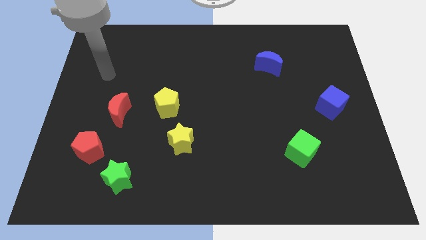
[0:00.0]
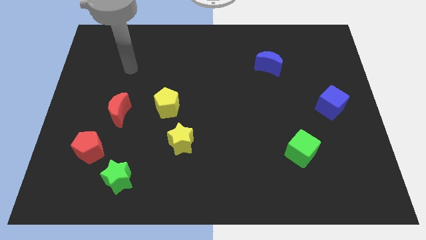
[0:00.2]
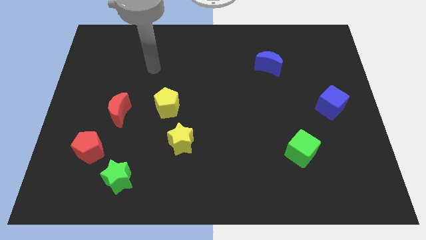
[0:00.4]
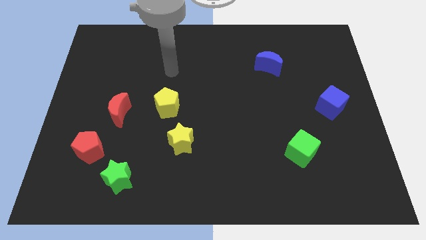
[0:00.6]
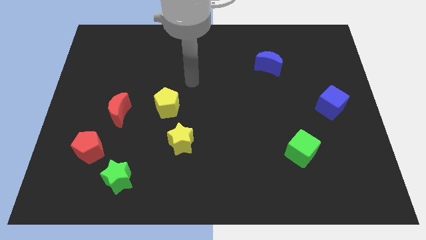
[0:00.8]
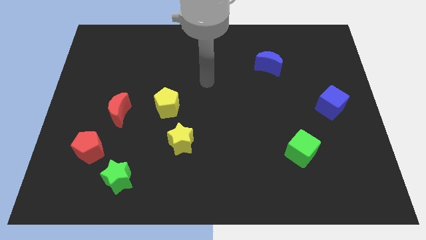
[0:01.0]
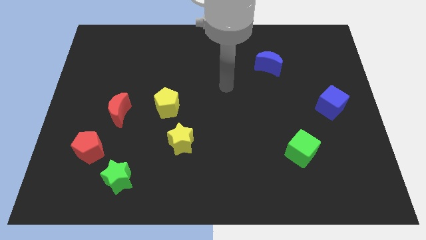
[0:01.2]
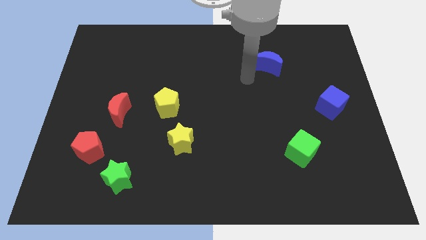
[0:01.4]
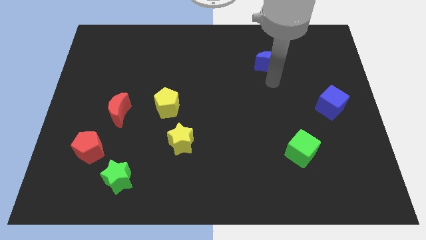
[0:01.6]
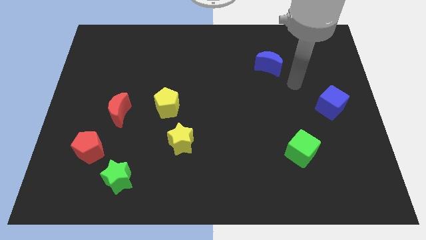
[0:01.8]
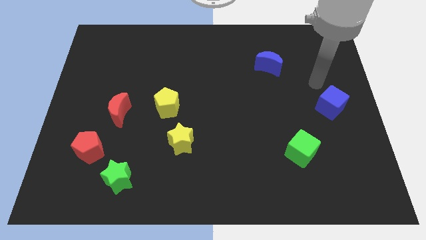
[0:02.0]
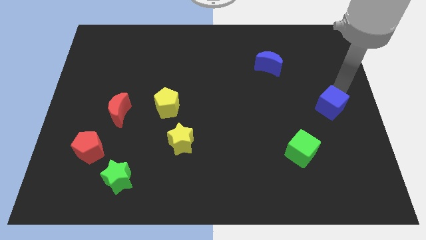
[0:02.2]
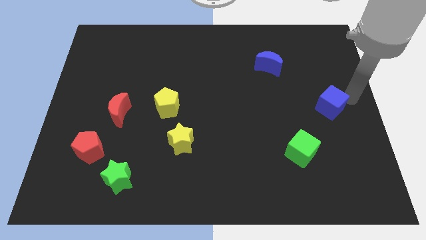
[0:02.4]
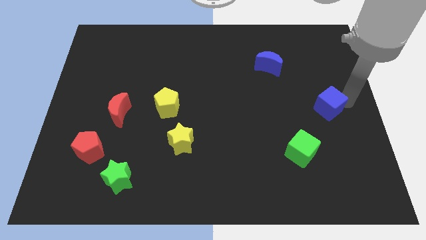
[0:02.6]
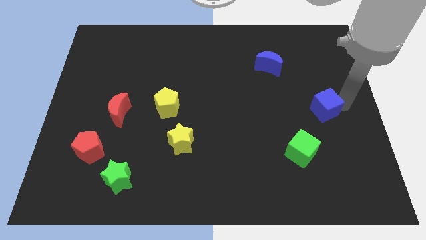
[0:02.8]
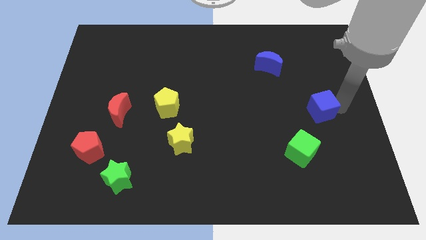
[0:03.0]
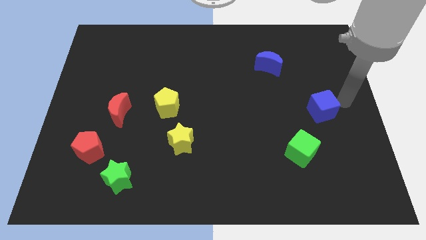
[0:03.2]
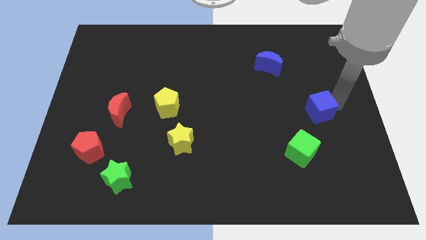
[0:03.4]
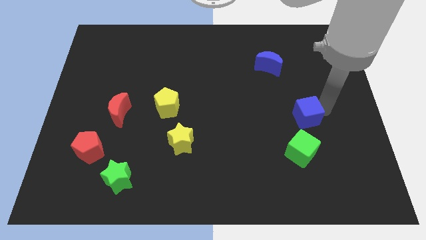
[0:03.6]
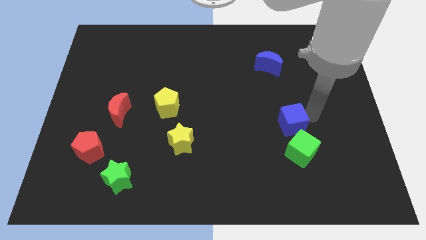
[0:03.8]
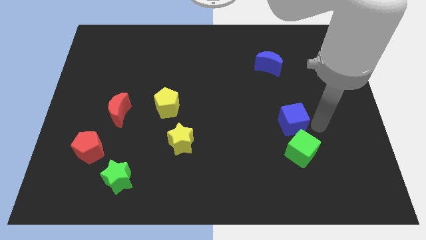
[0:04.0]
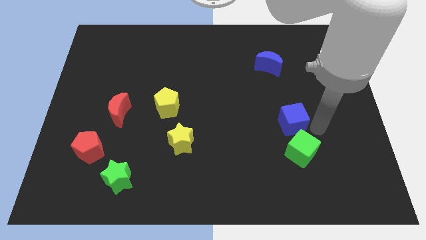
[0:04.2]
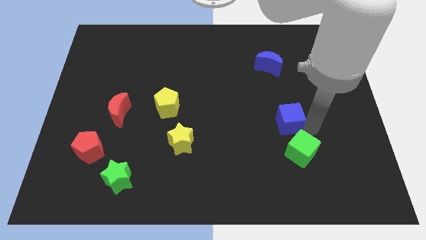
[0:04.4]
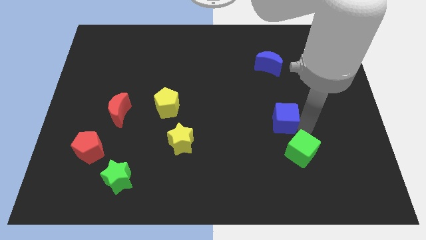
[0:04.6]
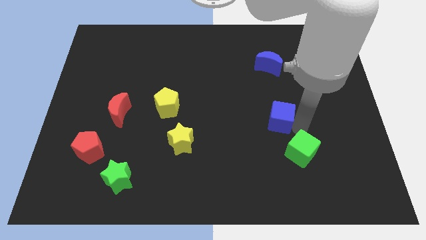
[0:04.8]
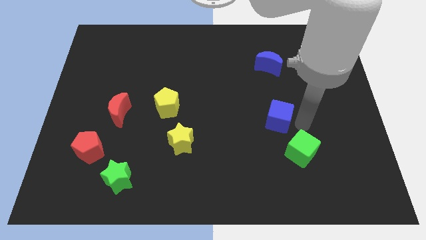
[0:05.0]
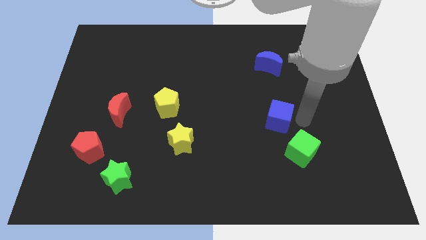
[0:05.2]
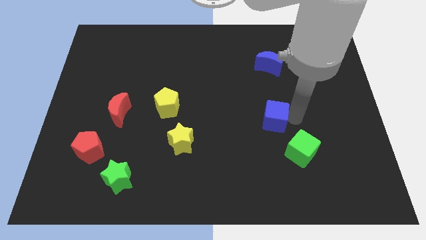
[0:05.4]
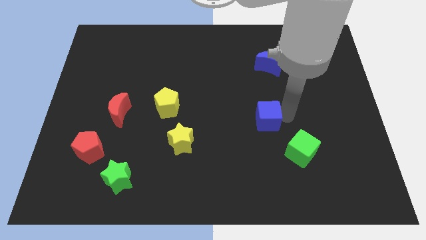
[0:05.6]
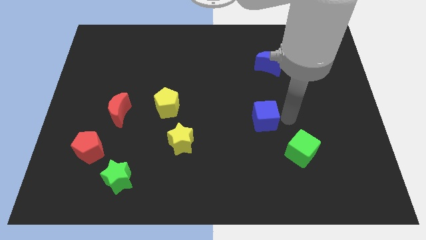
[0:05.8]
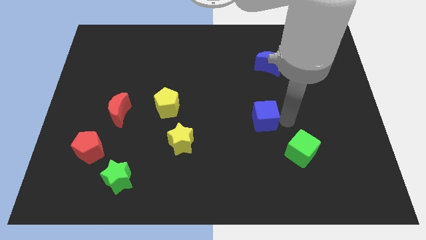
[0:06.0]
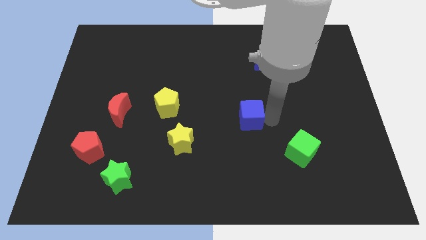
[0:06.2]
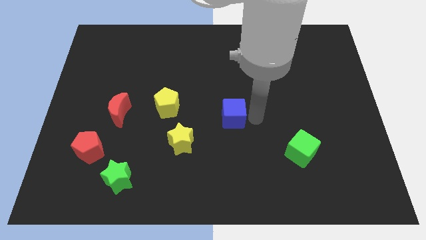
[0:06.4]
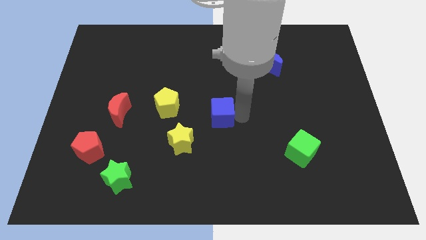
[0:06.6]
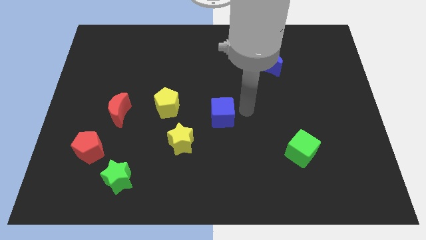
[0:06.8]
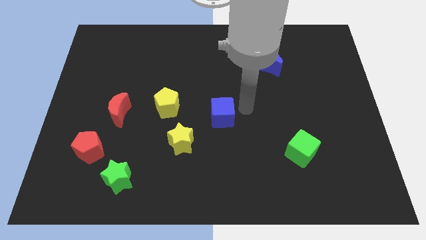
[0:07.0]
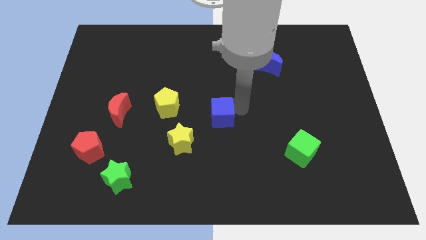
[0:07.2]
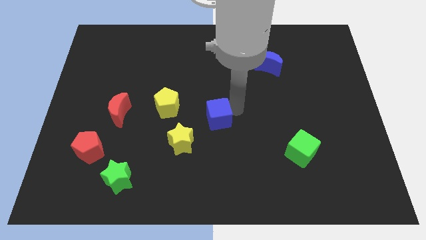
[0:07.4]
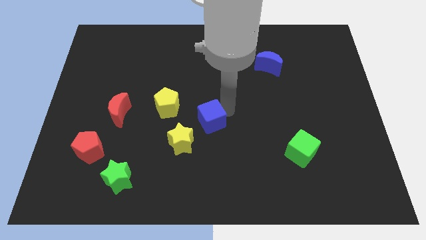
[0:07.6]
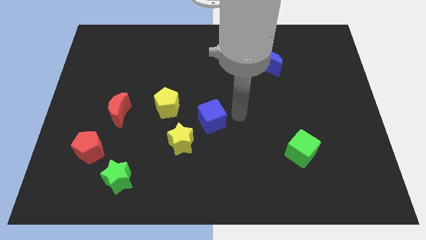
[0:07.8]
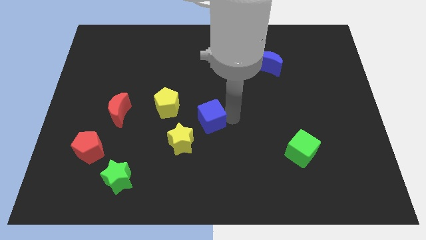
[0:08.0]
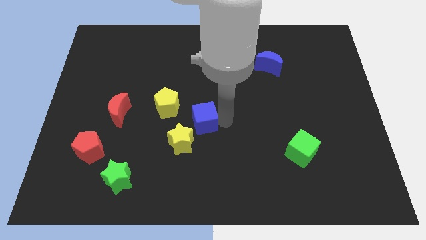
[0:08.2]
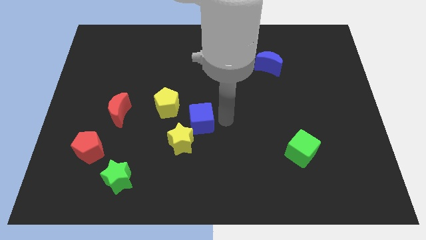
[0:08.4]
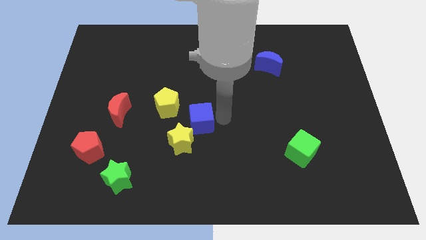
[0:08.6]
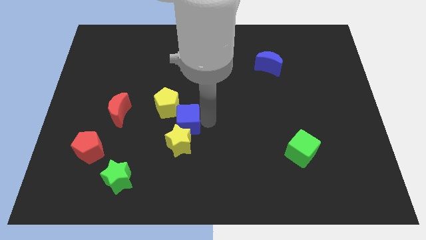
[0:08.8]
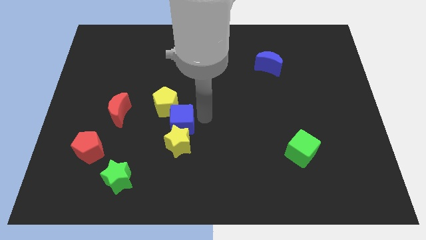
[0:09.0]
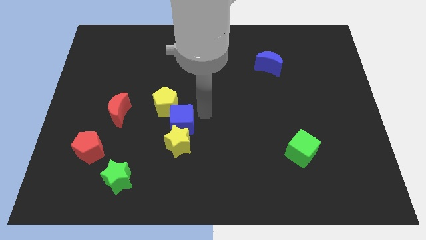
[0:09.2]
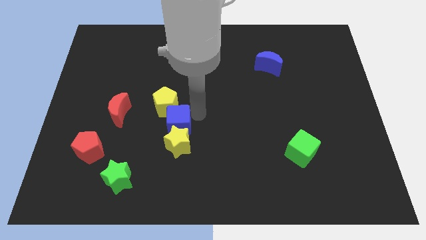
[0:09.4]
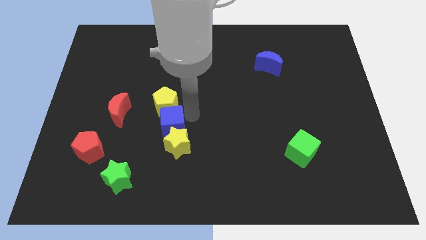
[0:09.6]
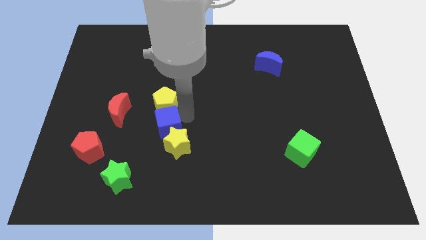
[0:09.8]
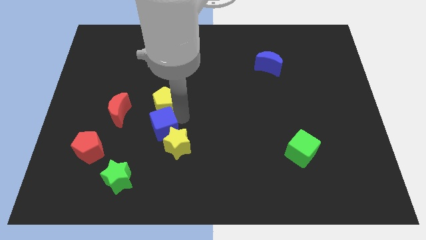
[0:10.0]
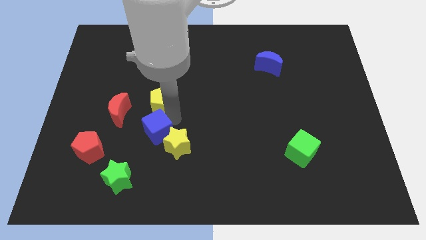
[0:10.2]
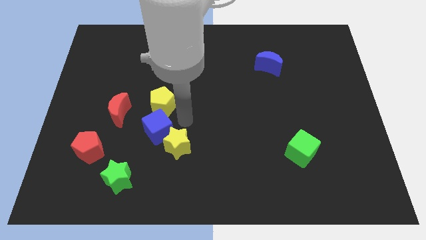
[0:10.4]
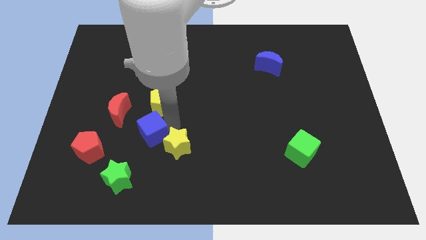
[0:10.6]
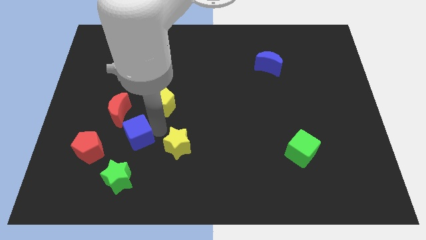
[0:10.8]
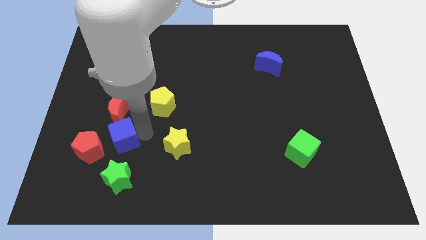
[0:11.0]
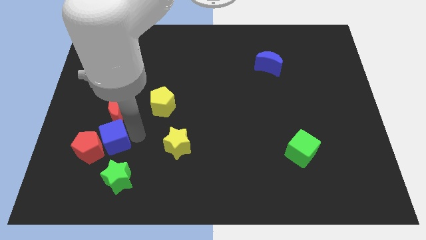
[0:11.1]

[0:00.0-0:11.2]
push the blue cube close to the red pentagon

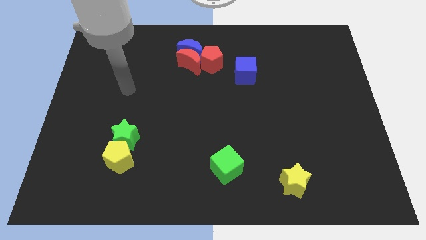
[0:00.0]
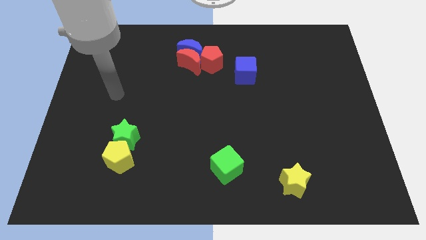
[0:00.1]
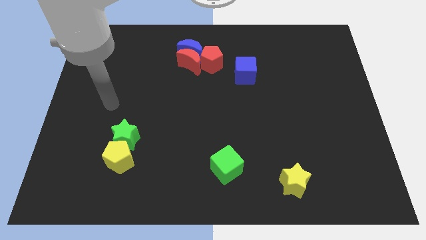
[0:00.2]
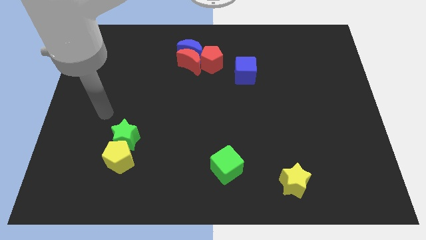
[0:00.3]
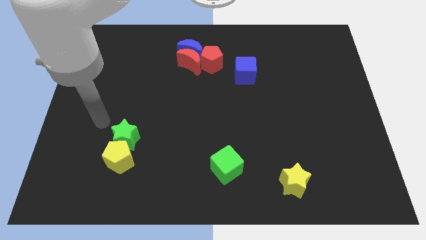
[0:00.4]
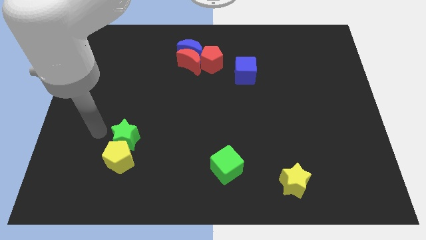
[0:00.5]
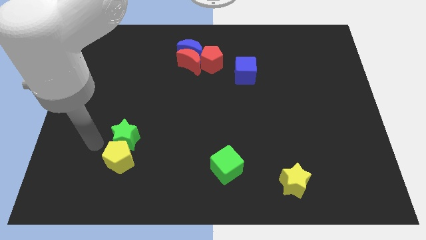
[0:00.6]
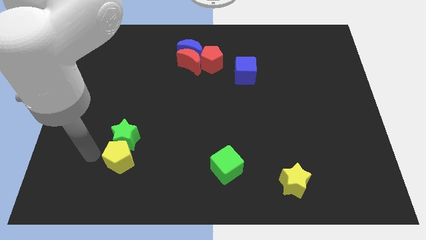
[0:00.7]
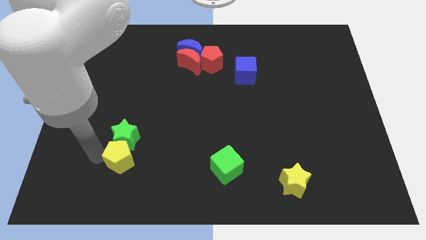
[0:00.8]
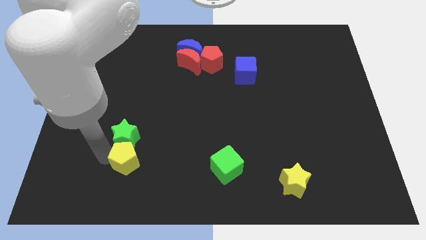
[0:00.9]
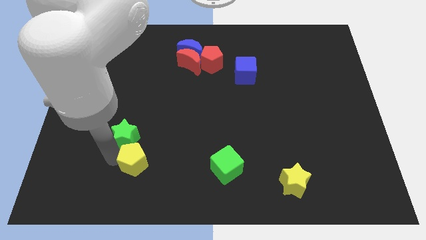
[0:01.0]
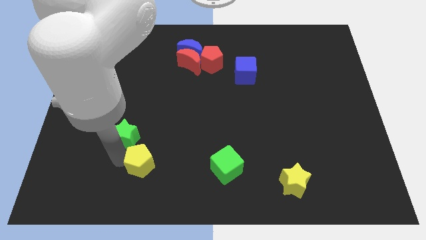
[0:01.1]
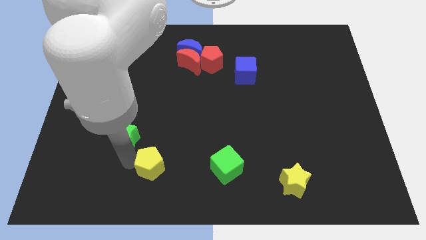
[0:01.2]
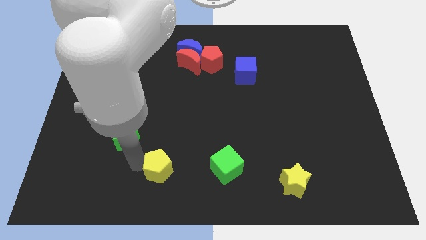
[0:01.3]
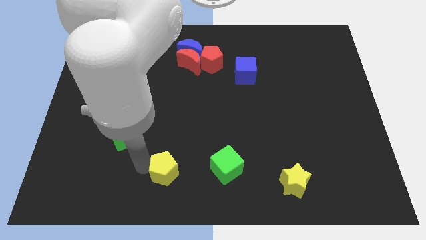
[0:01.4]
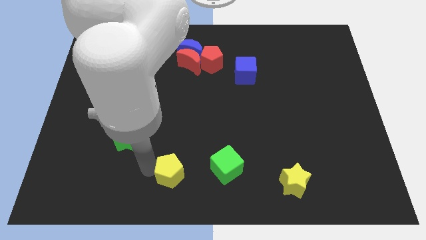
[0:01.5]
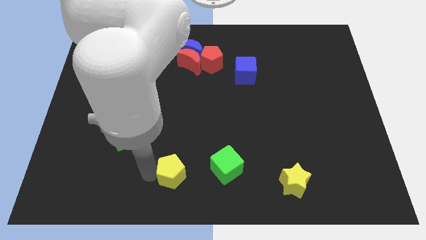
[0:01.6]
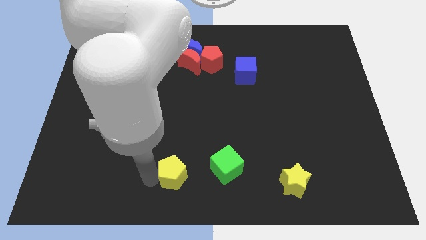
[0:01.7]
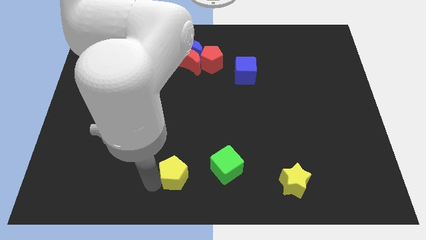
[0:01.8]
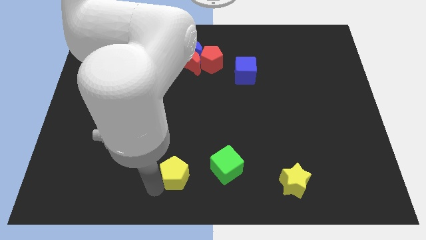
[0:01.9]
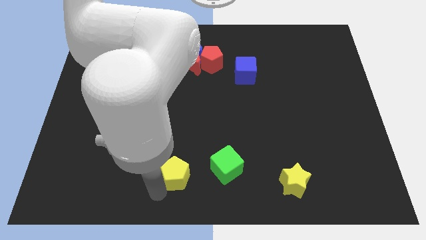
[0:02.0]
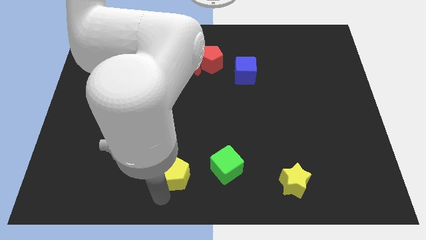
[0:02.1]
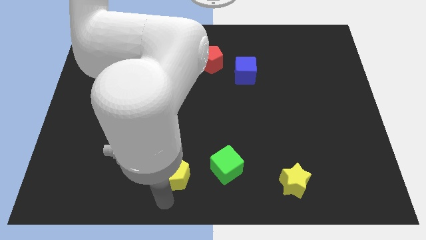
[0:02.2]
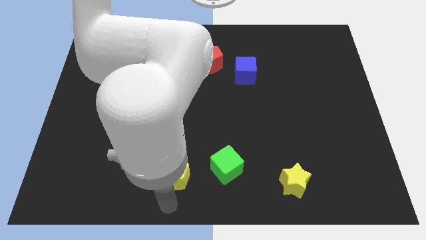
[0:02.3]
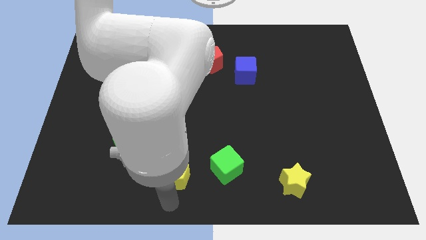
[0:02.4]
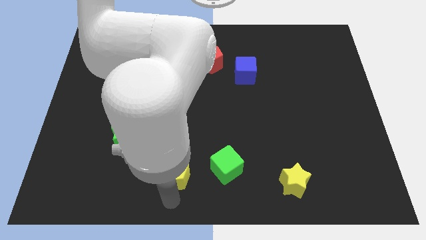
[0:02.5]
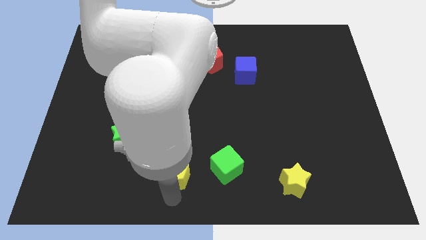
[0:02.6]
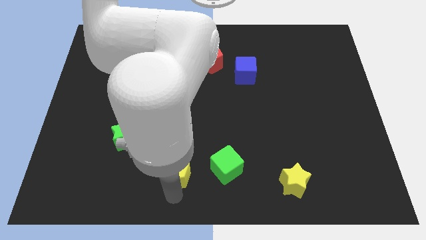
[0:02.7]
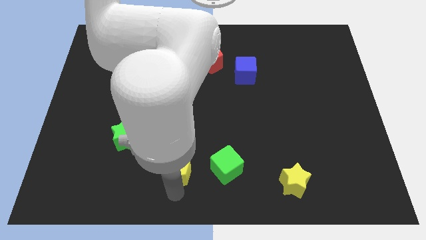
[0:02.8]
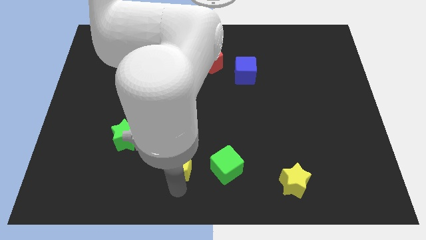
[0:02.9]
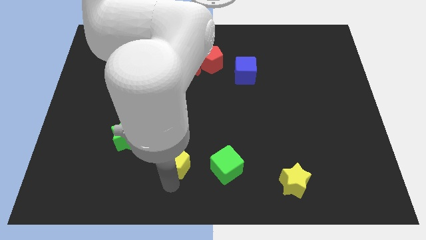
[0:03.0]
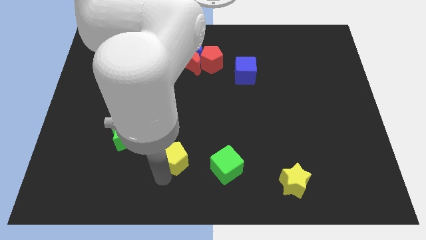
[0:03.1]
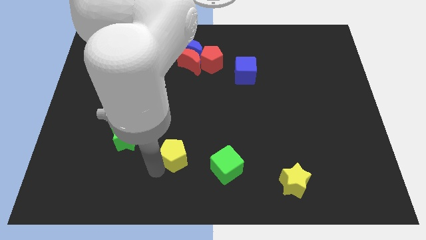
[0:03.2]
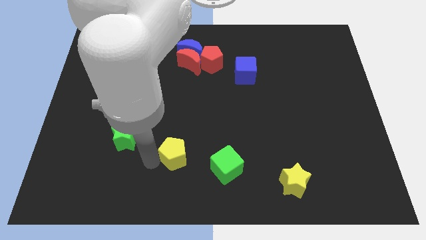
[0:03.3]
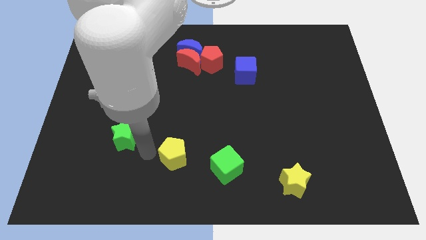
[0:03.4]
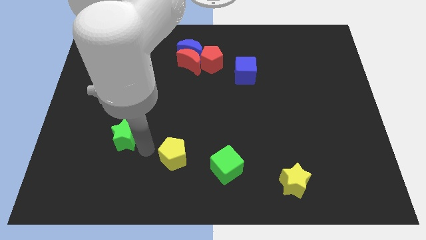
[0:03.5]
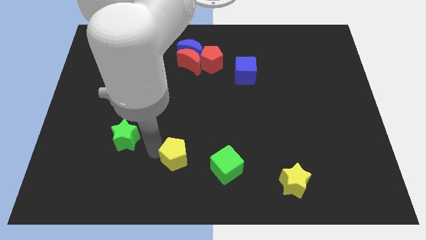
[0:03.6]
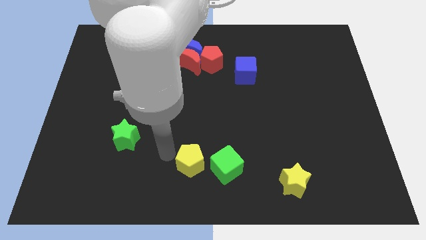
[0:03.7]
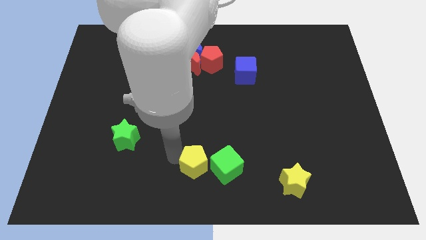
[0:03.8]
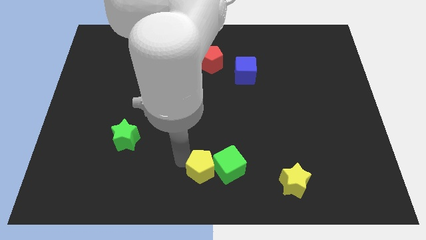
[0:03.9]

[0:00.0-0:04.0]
push the yellow pentagon close to the green cube
